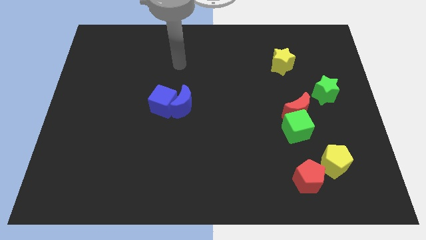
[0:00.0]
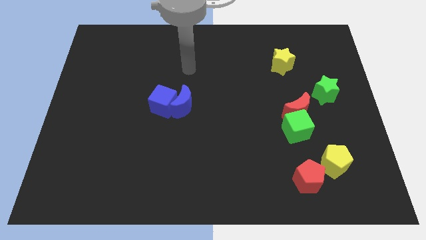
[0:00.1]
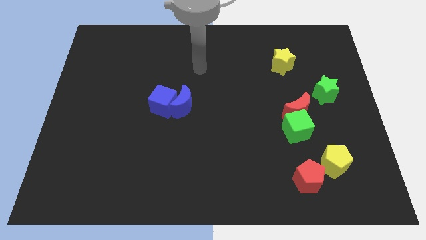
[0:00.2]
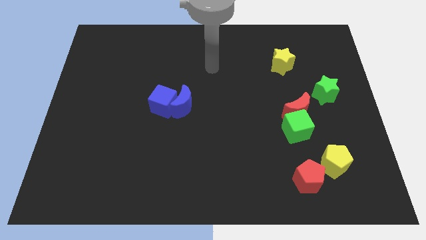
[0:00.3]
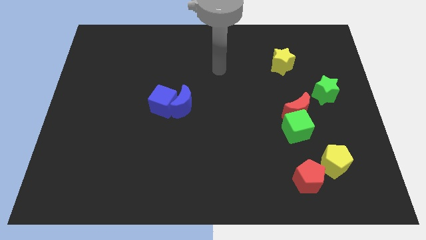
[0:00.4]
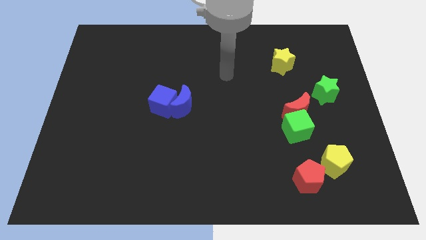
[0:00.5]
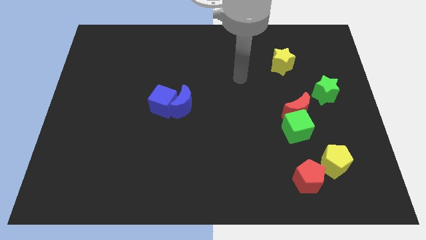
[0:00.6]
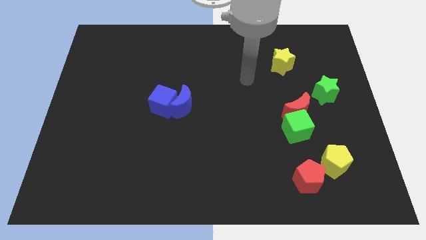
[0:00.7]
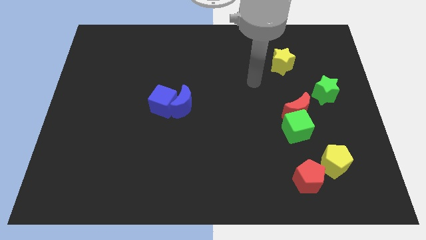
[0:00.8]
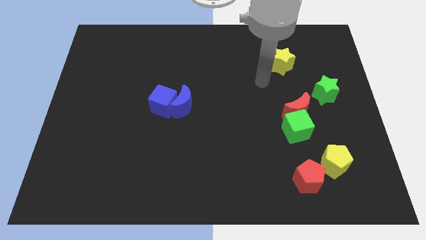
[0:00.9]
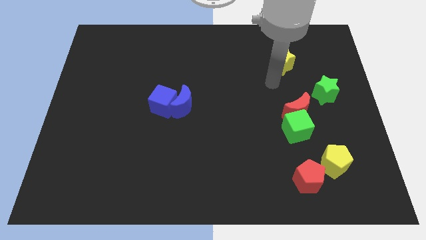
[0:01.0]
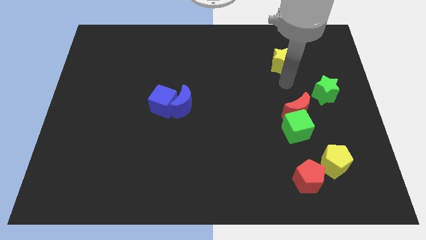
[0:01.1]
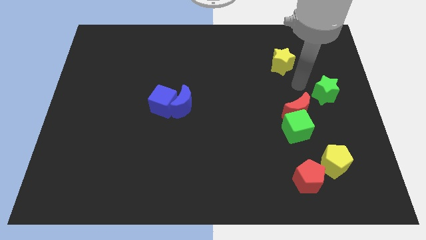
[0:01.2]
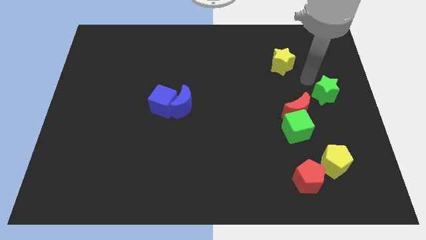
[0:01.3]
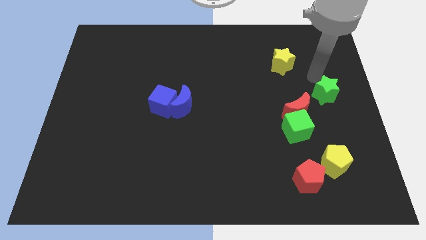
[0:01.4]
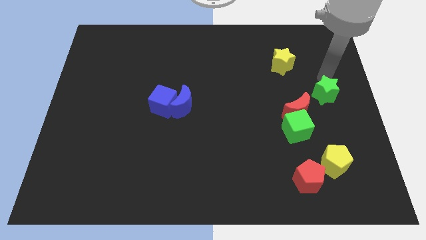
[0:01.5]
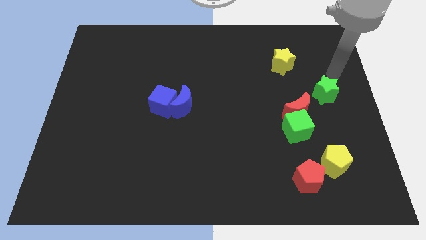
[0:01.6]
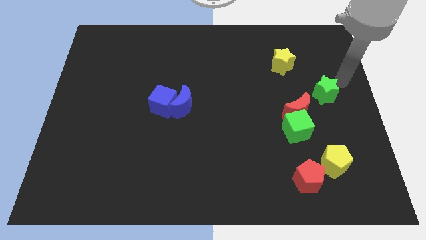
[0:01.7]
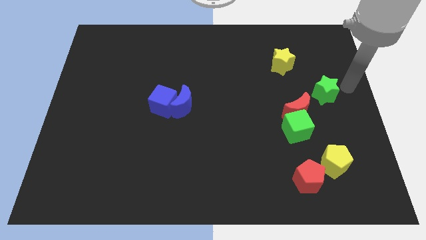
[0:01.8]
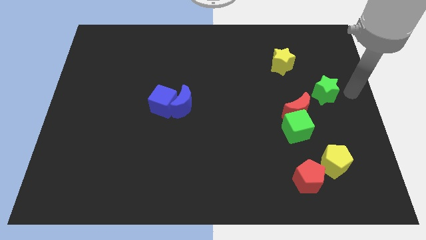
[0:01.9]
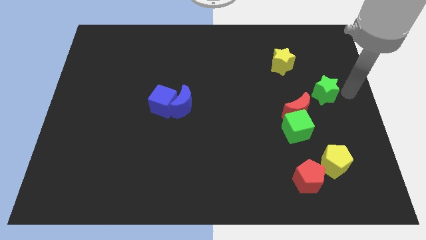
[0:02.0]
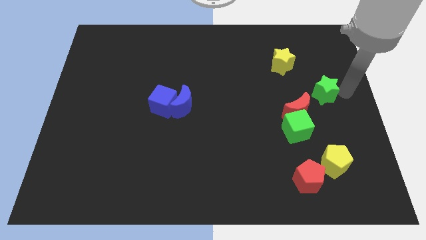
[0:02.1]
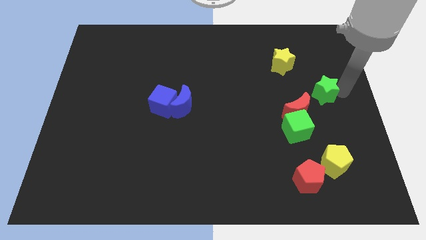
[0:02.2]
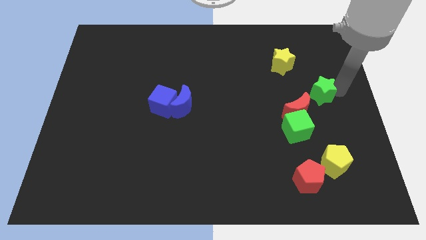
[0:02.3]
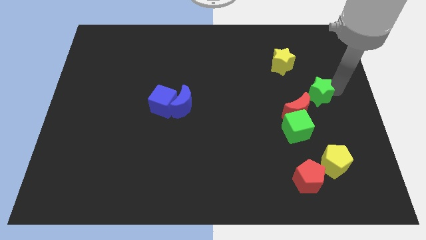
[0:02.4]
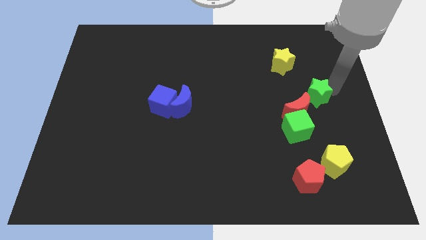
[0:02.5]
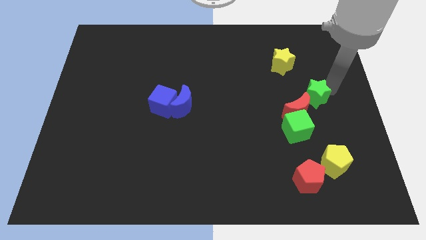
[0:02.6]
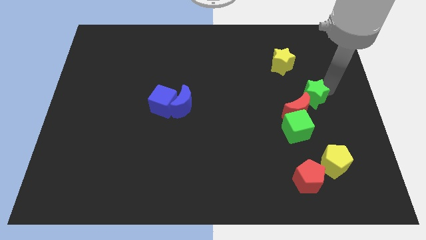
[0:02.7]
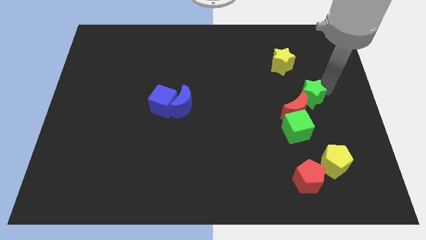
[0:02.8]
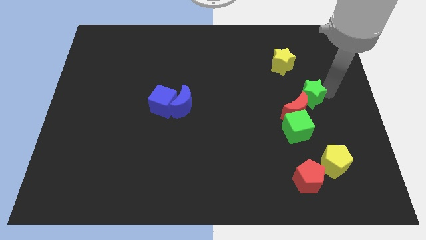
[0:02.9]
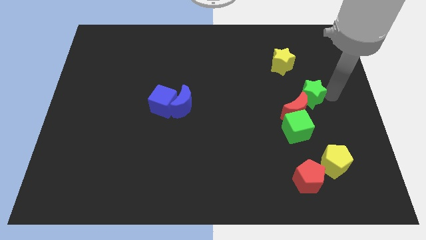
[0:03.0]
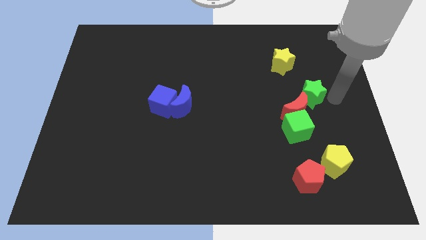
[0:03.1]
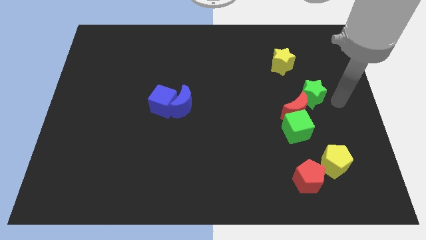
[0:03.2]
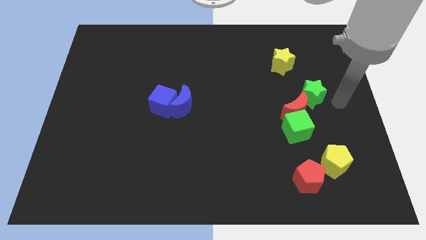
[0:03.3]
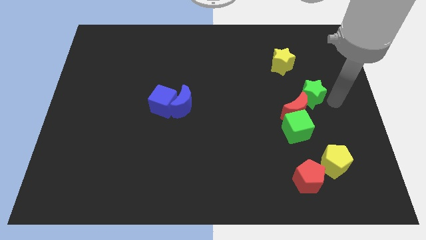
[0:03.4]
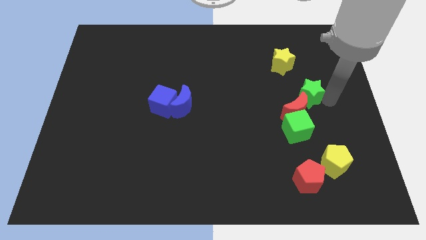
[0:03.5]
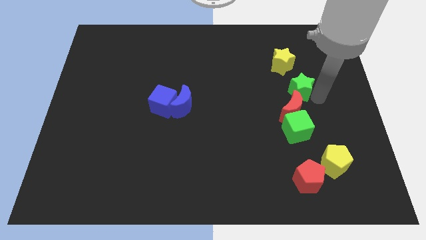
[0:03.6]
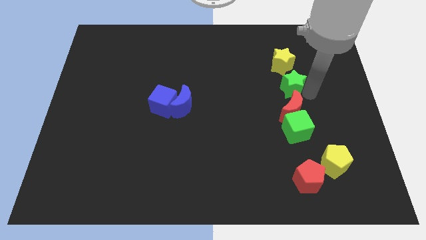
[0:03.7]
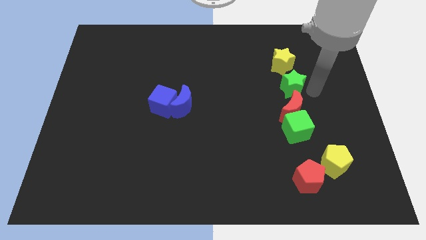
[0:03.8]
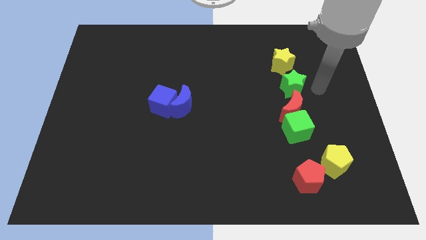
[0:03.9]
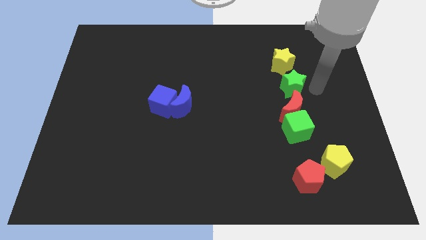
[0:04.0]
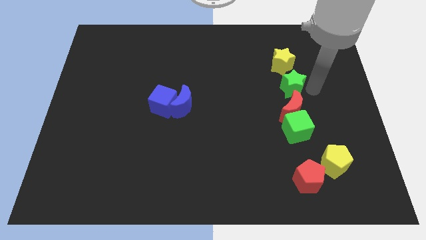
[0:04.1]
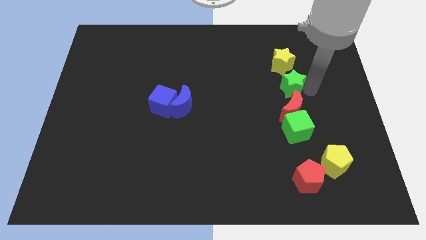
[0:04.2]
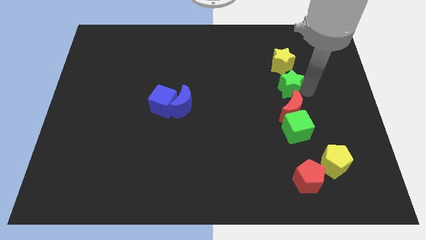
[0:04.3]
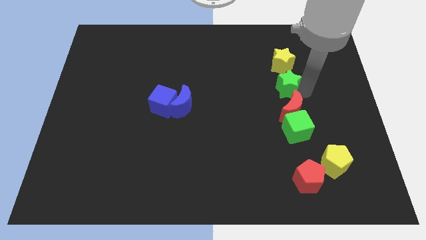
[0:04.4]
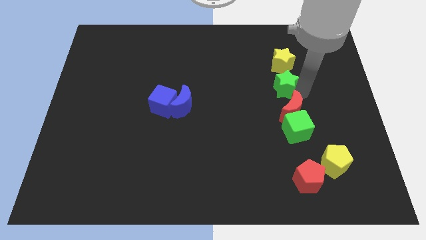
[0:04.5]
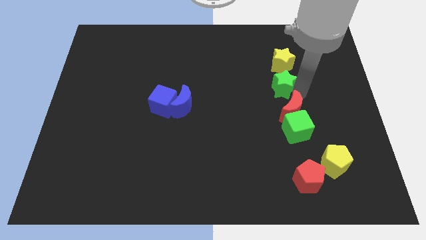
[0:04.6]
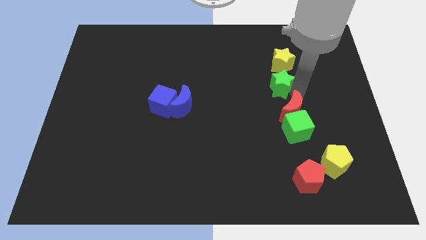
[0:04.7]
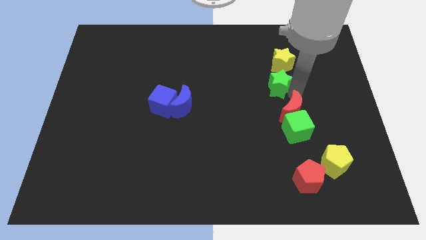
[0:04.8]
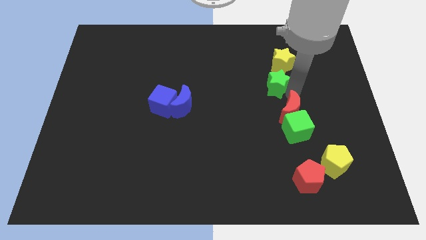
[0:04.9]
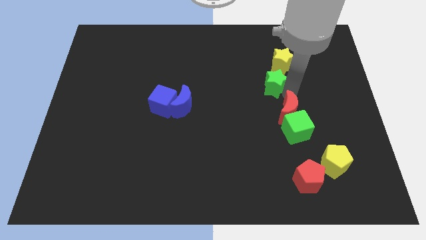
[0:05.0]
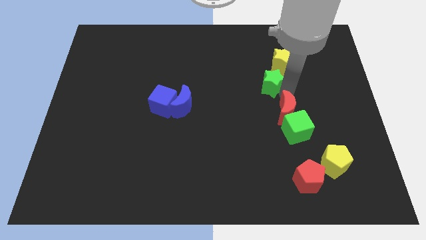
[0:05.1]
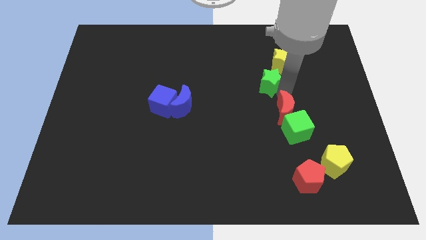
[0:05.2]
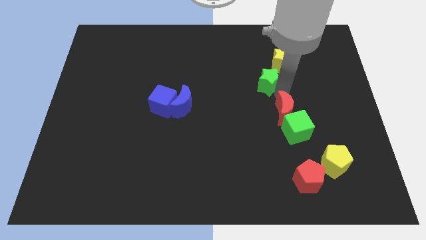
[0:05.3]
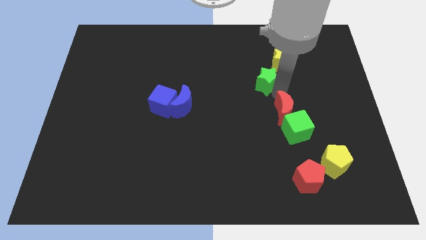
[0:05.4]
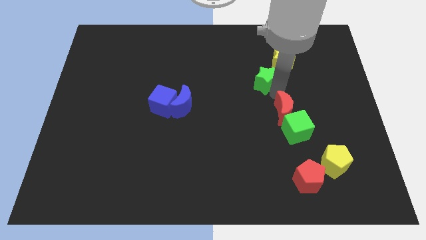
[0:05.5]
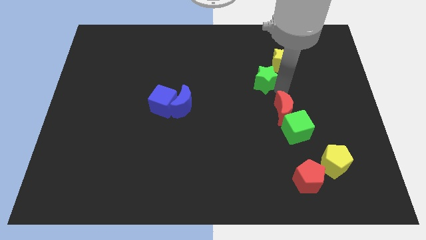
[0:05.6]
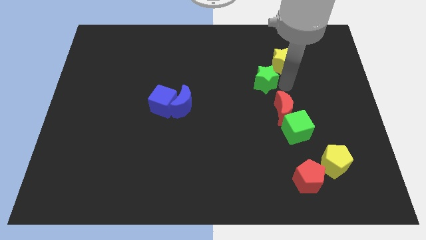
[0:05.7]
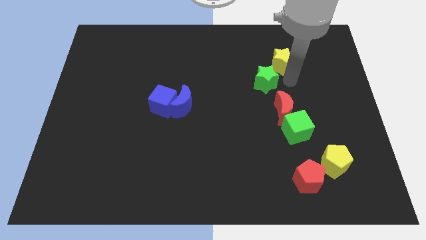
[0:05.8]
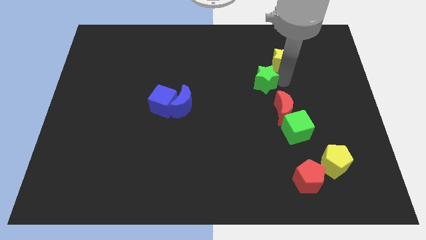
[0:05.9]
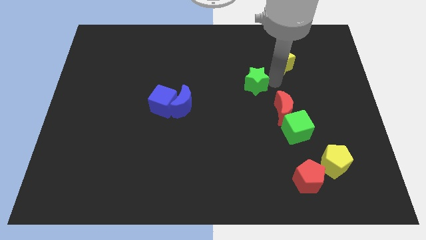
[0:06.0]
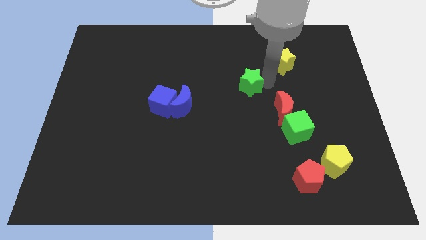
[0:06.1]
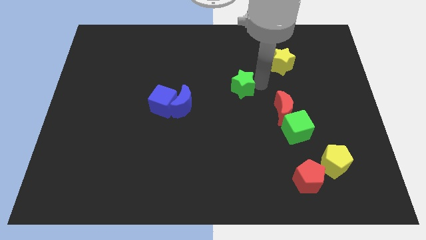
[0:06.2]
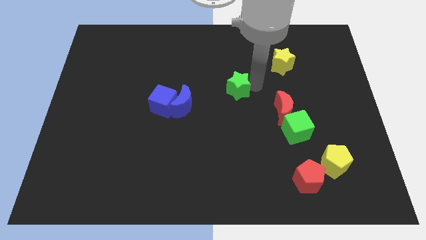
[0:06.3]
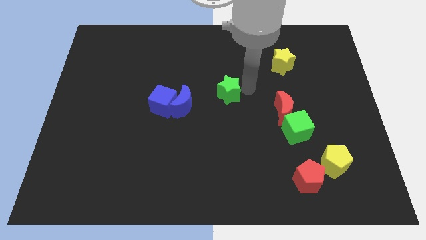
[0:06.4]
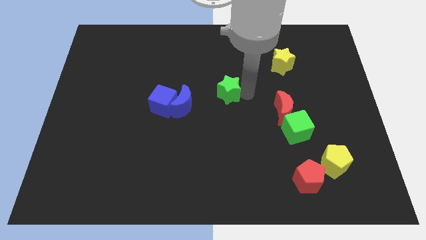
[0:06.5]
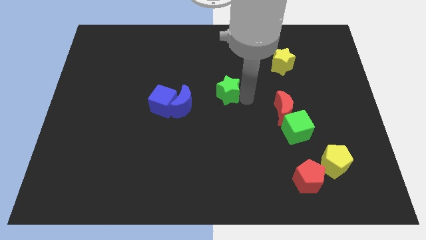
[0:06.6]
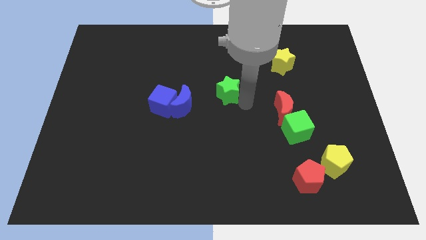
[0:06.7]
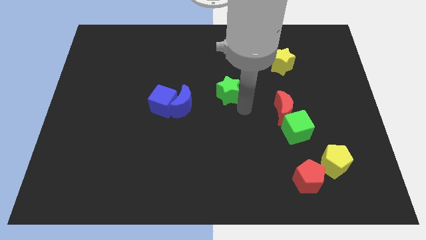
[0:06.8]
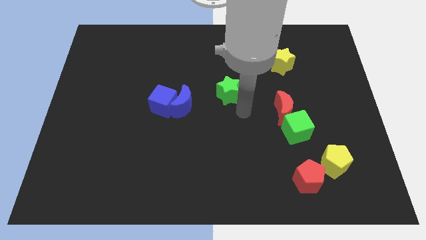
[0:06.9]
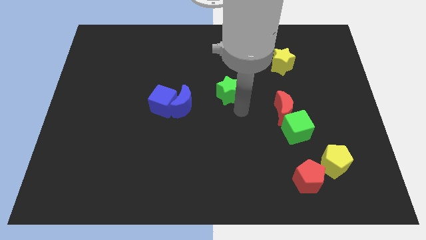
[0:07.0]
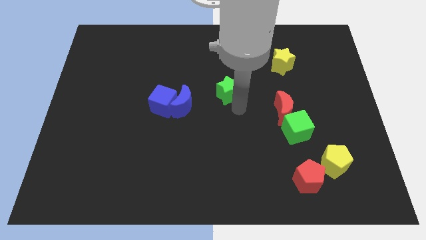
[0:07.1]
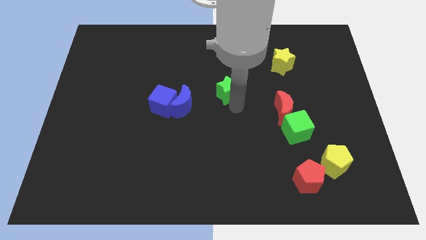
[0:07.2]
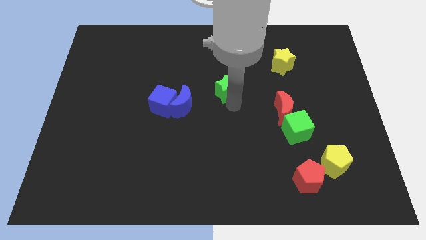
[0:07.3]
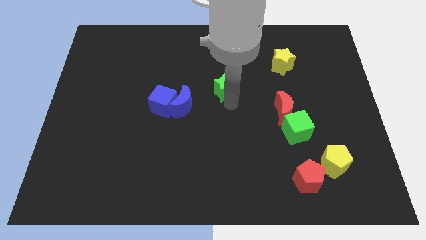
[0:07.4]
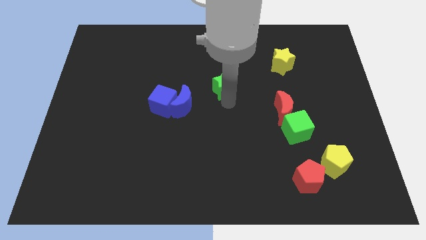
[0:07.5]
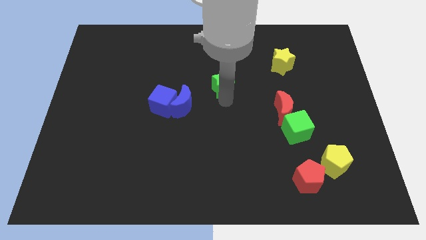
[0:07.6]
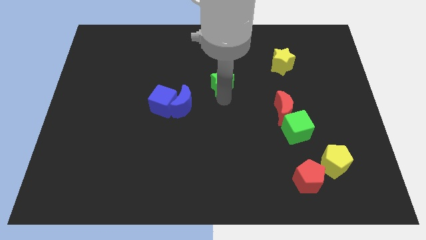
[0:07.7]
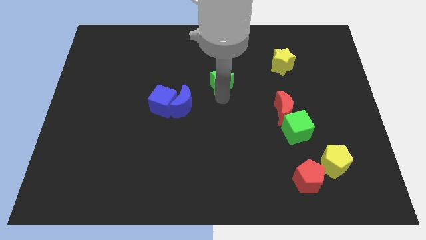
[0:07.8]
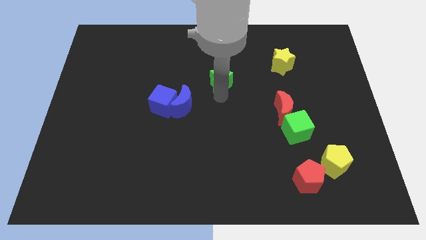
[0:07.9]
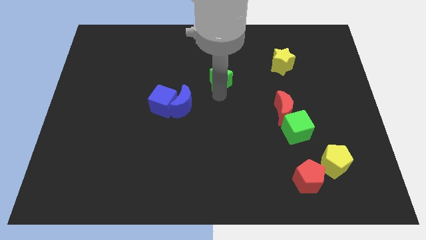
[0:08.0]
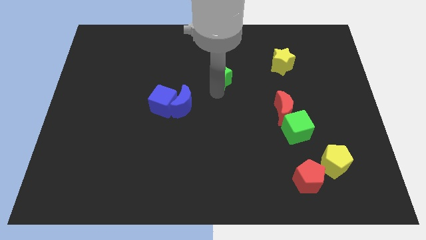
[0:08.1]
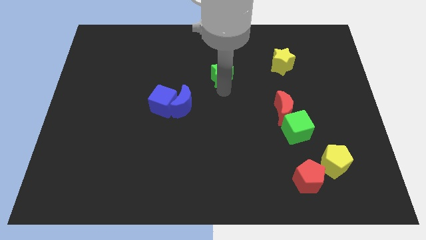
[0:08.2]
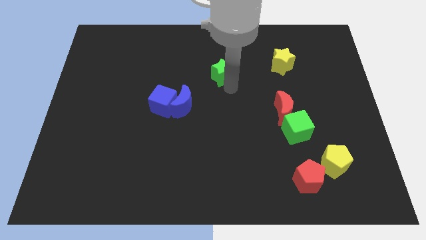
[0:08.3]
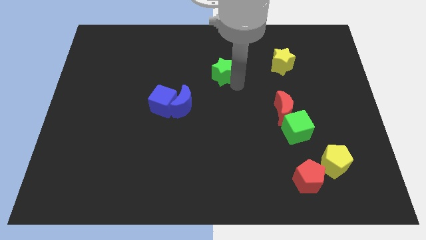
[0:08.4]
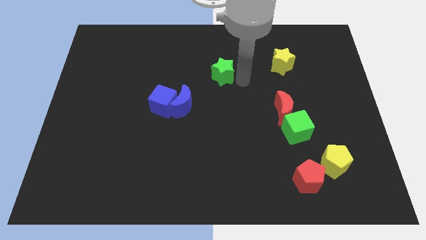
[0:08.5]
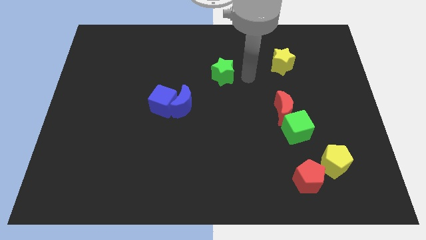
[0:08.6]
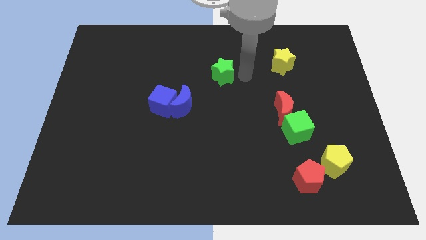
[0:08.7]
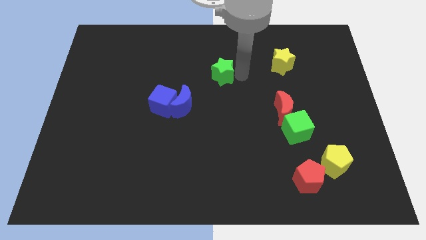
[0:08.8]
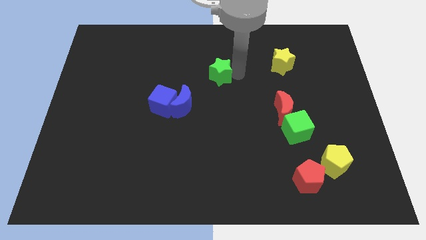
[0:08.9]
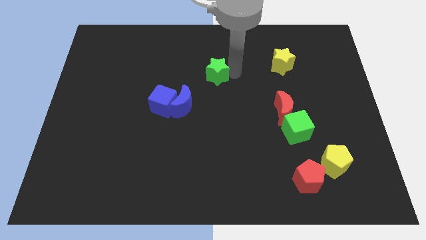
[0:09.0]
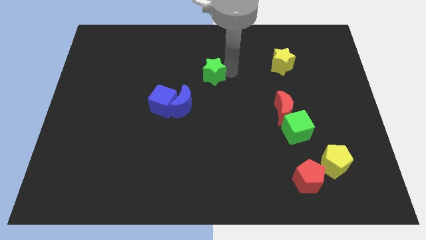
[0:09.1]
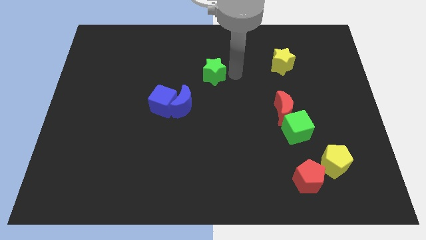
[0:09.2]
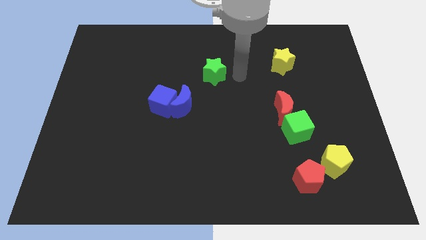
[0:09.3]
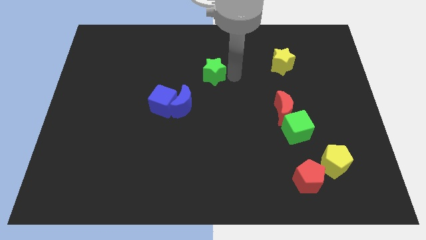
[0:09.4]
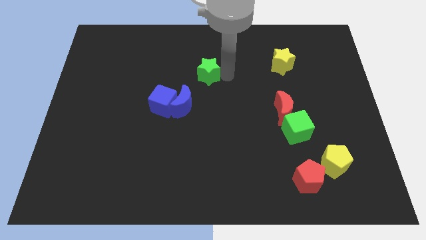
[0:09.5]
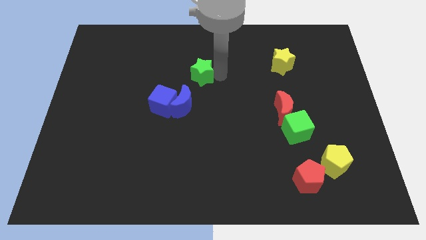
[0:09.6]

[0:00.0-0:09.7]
move the green star to the top side of the blue moon
